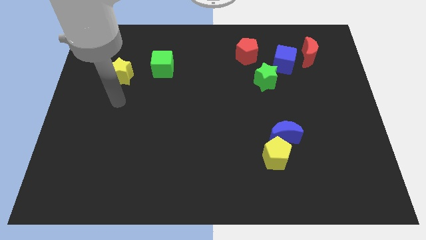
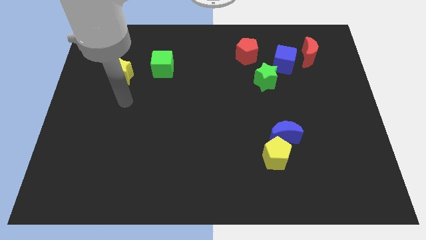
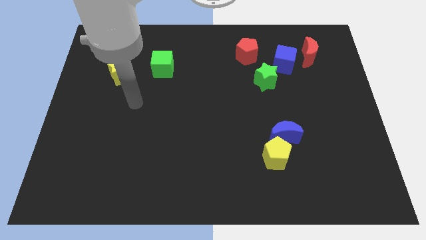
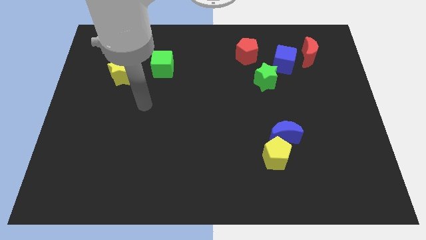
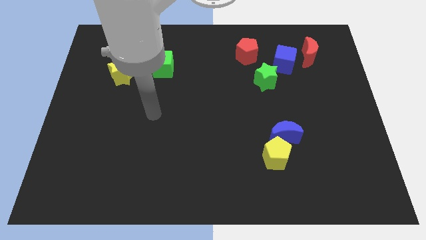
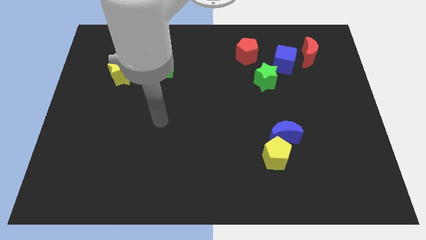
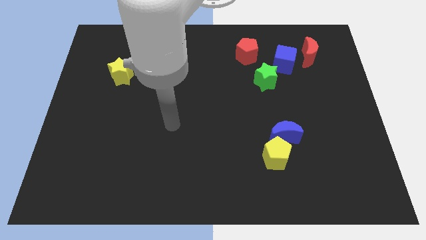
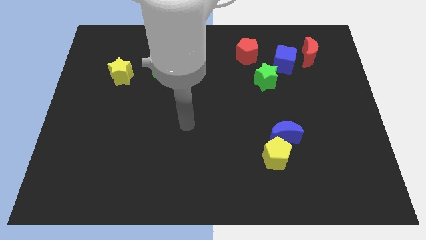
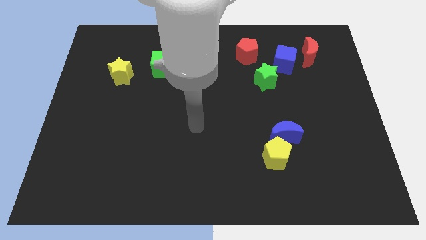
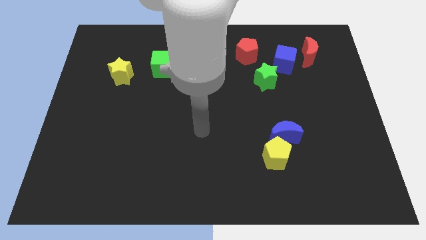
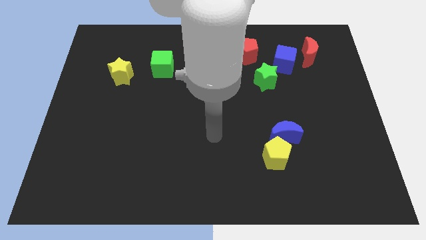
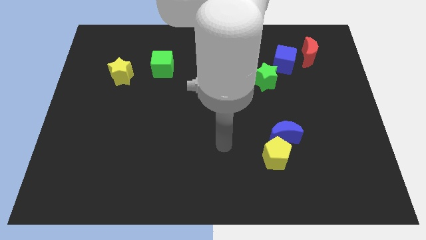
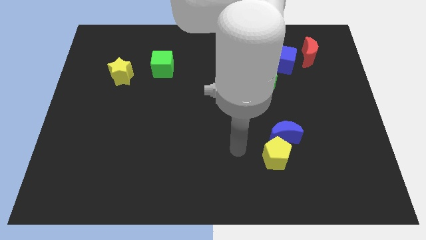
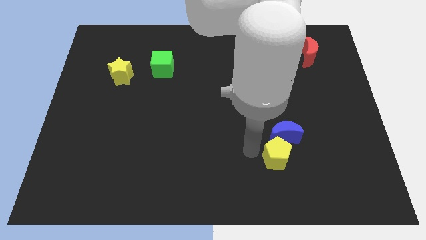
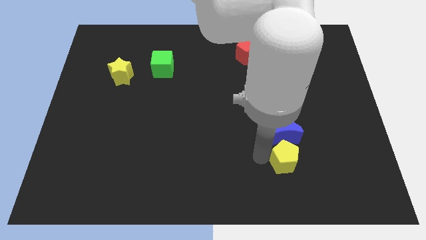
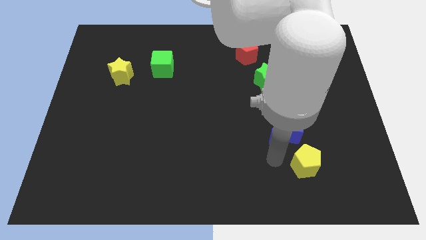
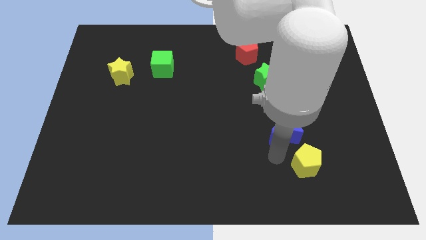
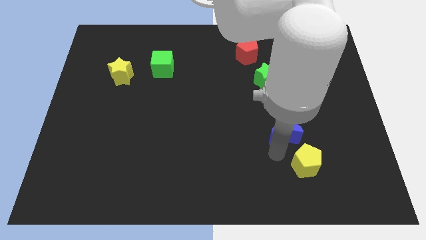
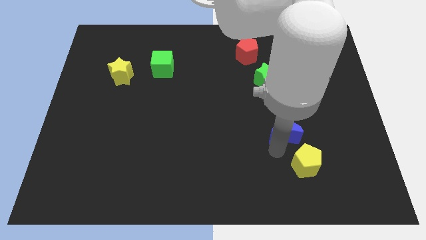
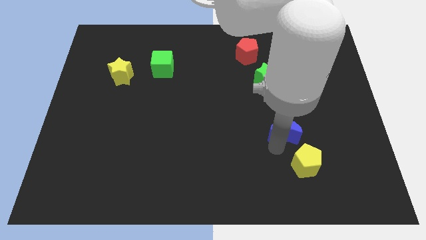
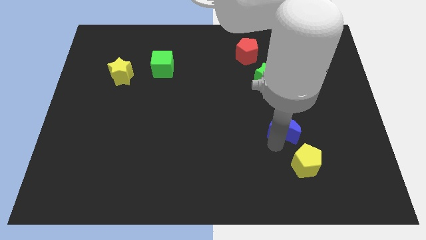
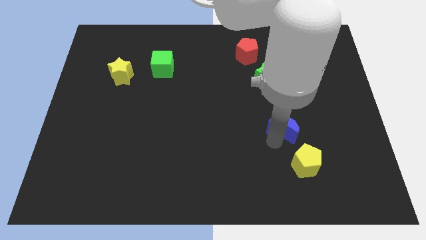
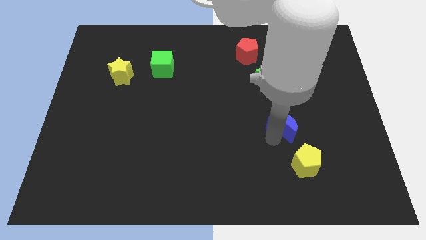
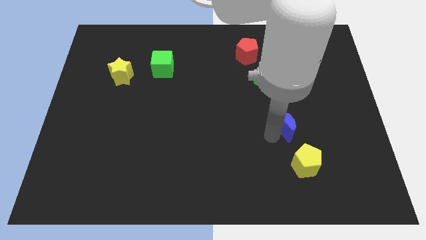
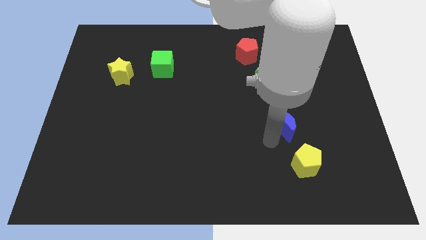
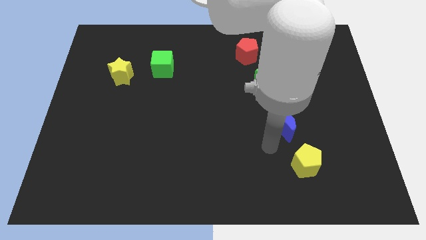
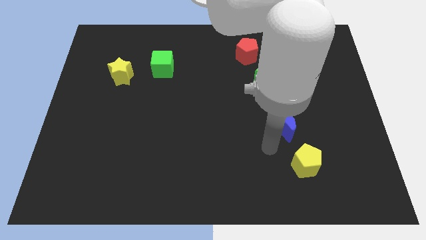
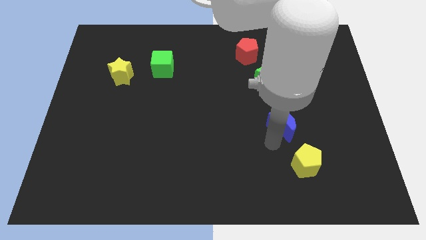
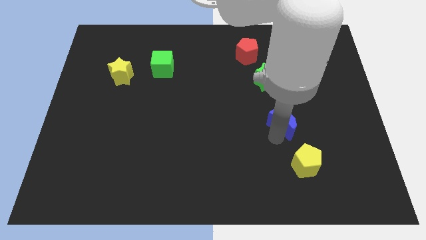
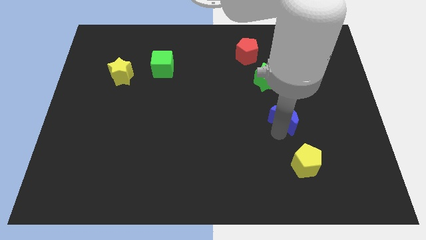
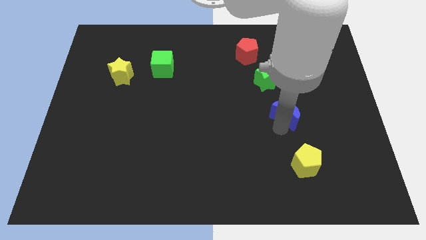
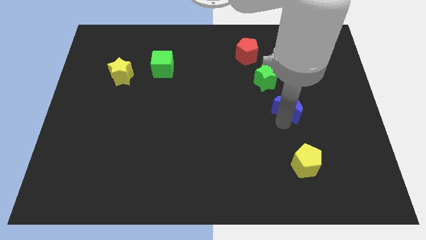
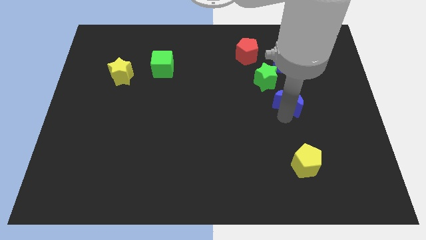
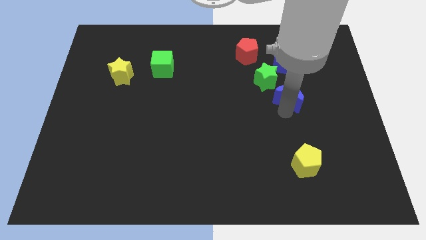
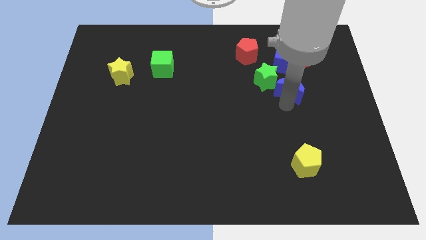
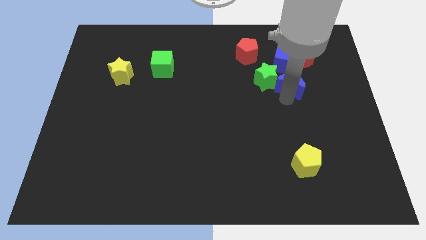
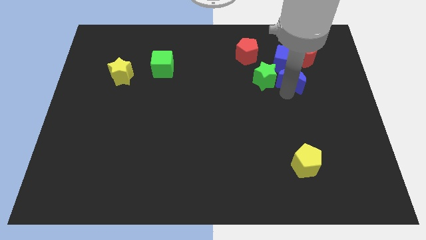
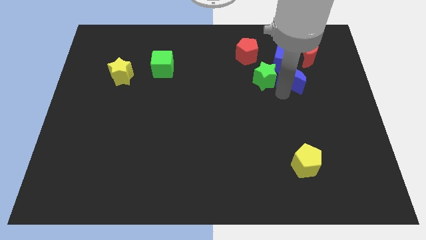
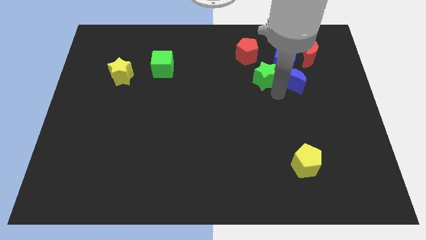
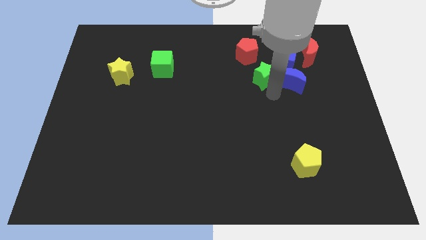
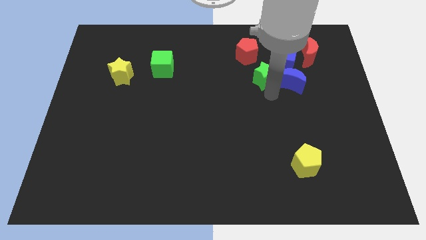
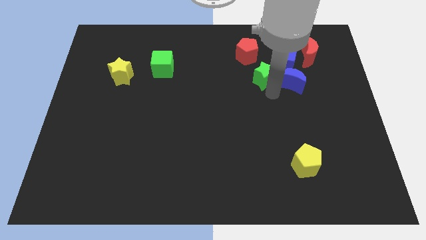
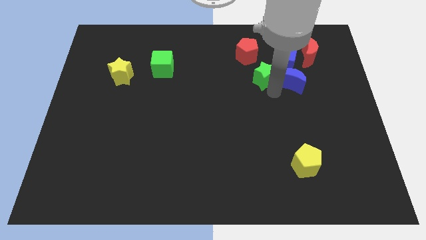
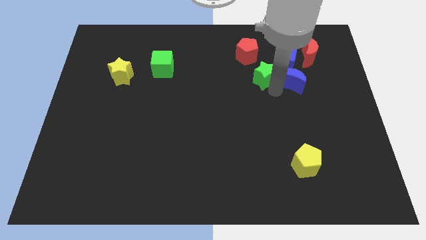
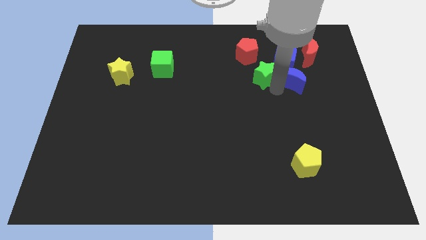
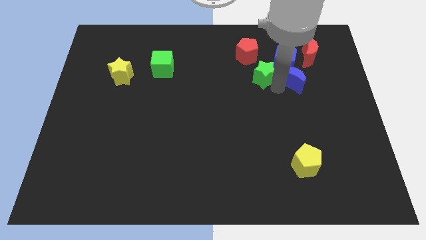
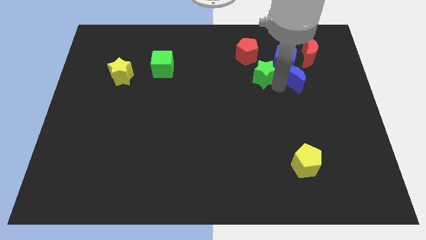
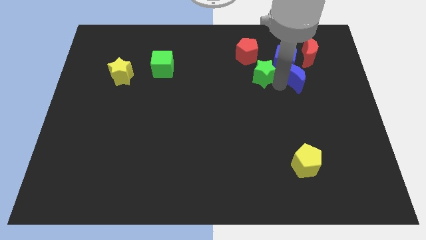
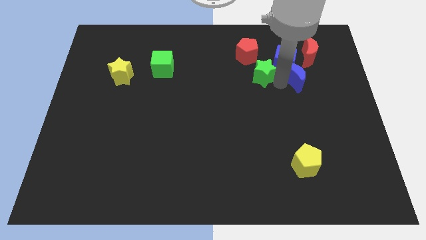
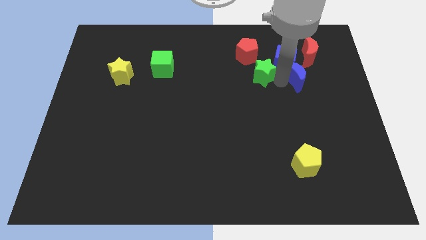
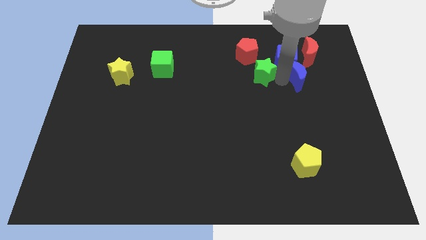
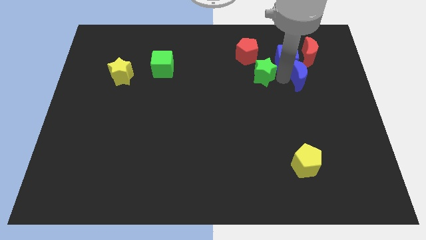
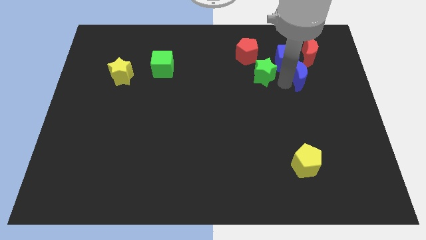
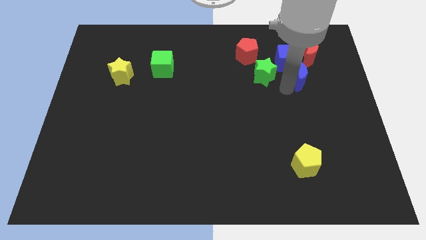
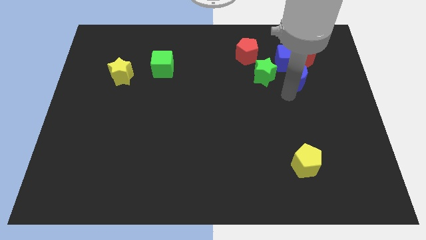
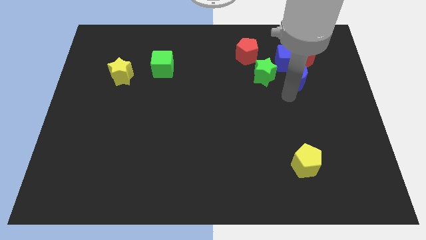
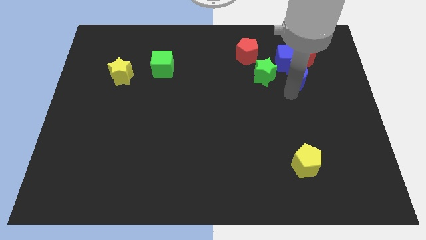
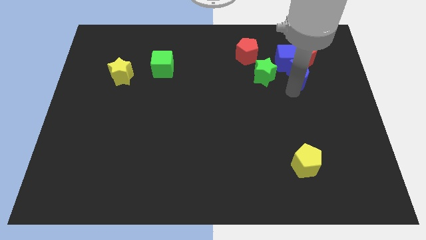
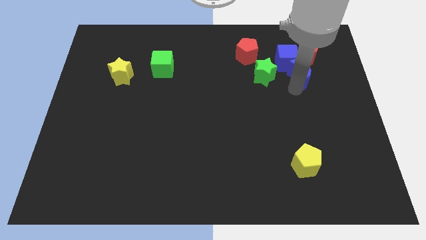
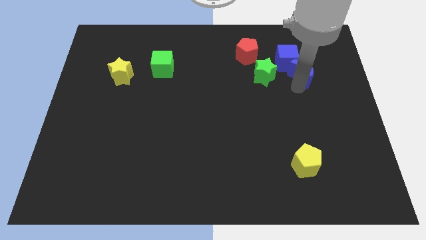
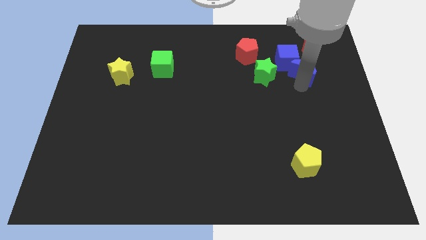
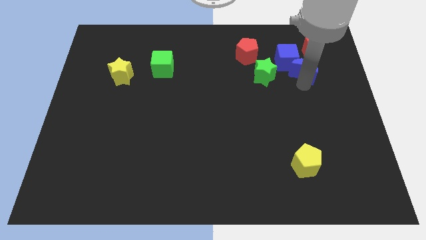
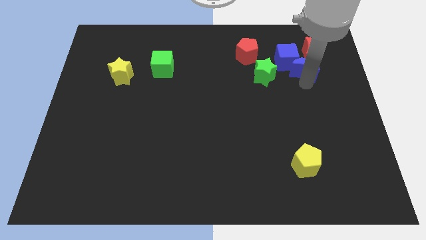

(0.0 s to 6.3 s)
slide the blue moon next to the red moon
